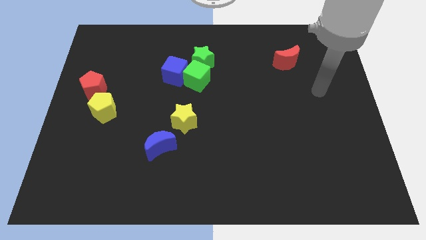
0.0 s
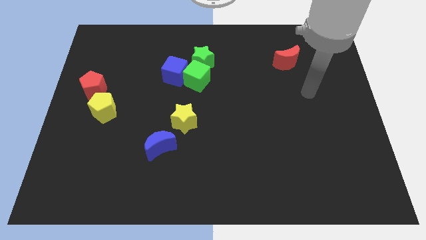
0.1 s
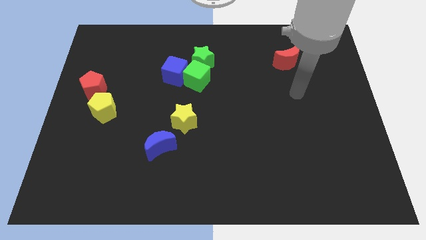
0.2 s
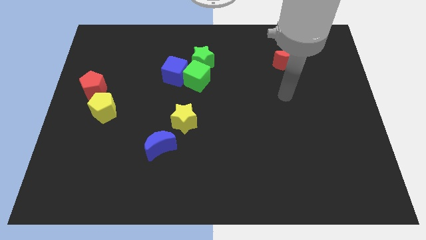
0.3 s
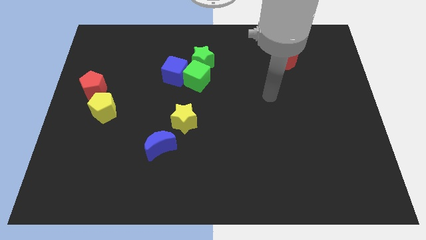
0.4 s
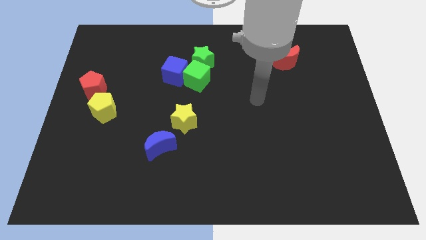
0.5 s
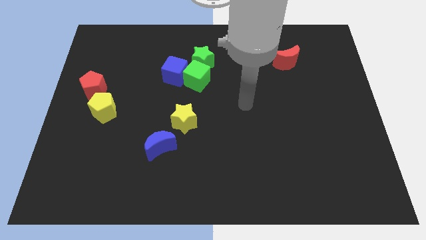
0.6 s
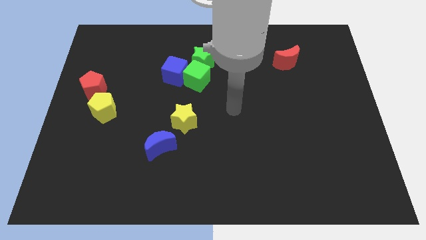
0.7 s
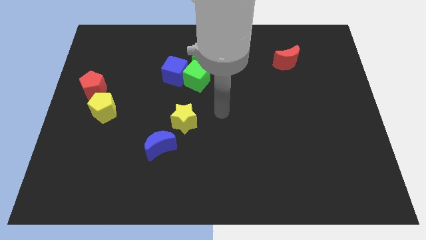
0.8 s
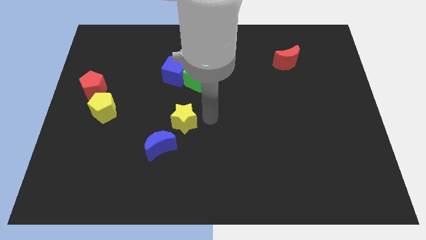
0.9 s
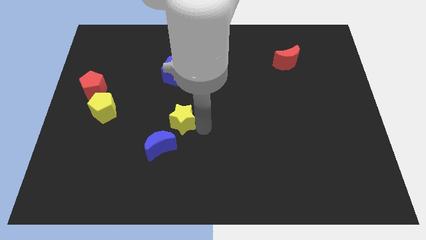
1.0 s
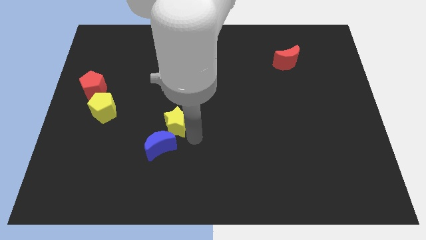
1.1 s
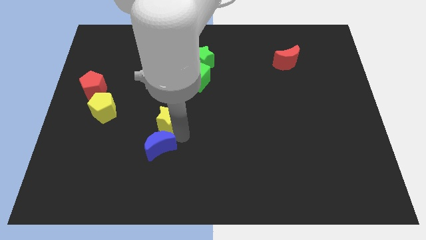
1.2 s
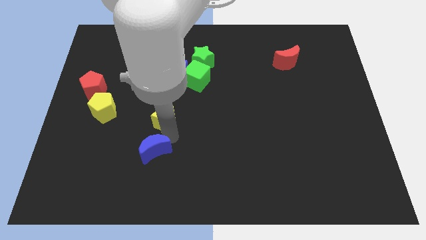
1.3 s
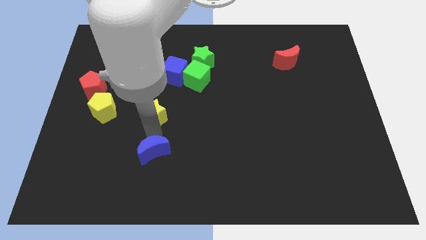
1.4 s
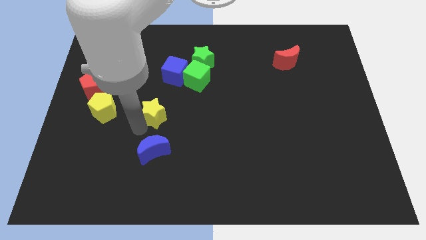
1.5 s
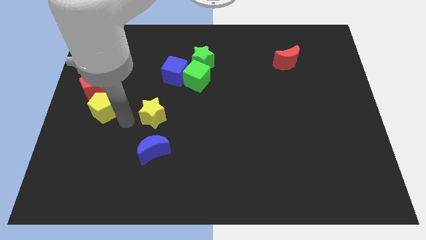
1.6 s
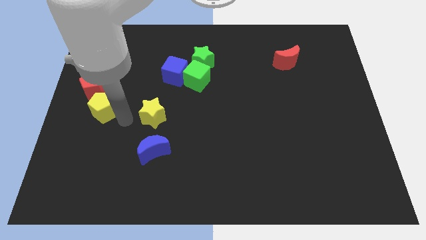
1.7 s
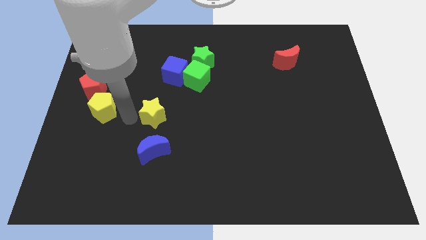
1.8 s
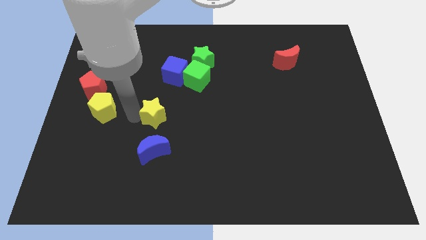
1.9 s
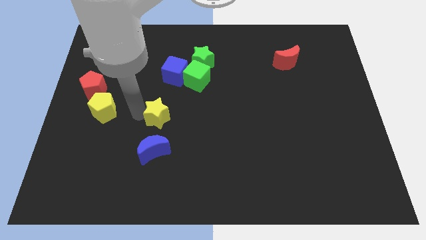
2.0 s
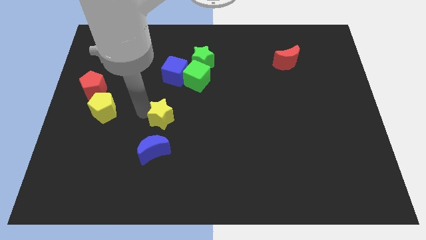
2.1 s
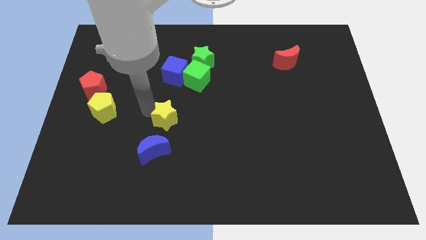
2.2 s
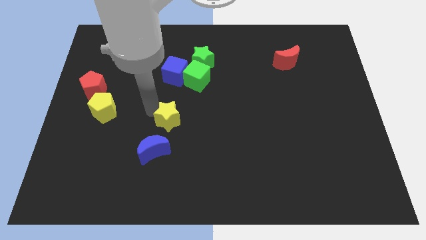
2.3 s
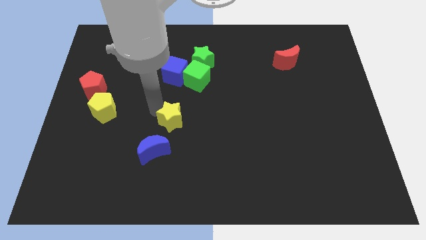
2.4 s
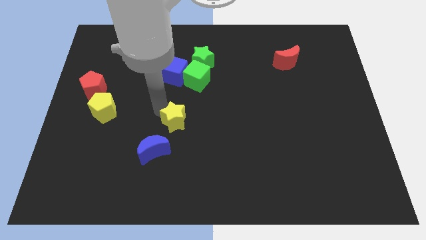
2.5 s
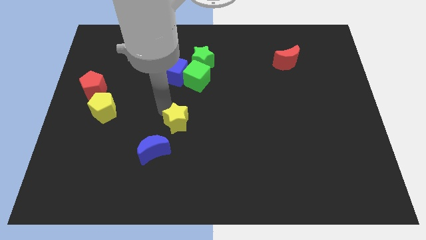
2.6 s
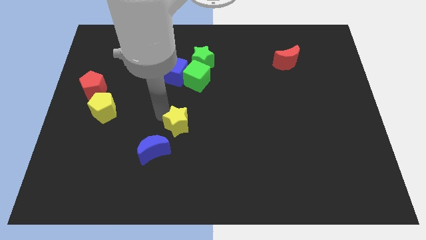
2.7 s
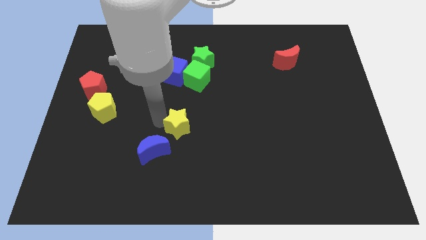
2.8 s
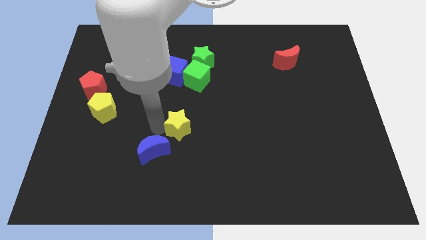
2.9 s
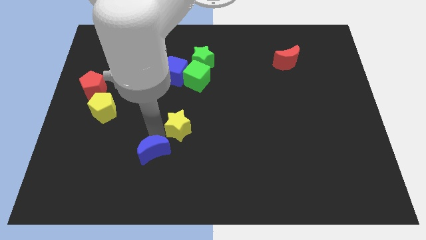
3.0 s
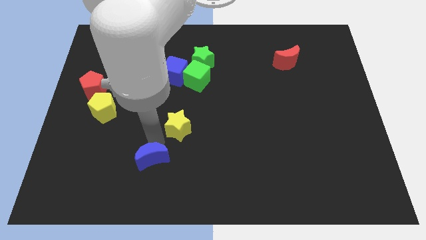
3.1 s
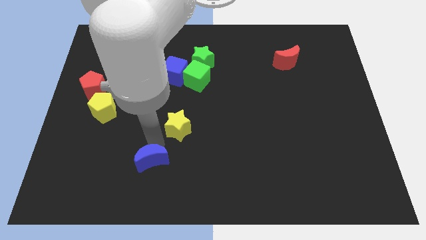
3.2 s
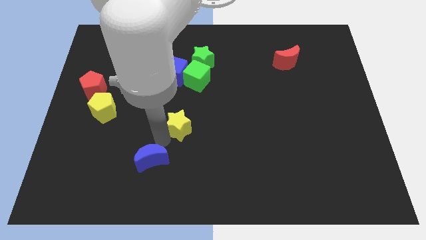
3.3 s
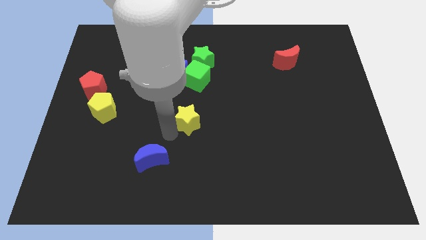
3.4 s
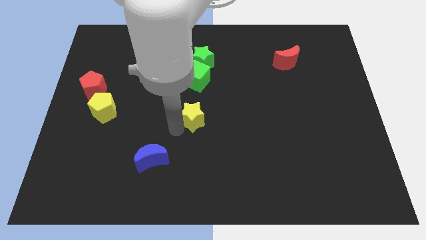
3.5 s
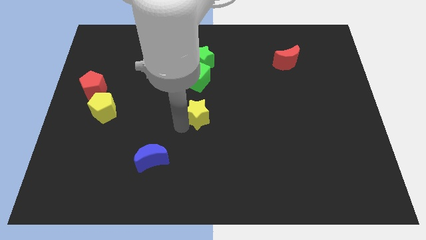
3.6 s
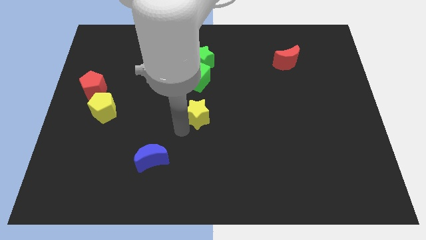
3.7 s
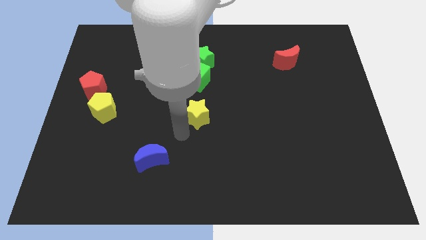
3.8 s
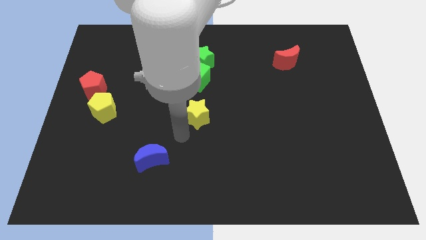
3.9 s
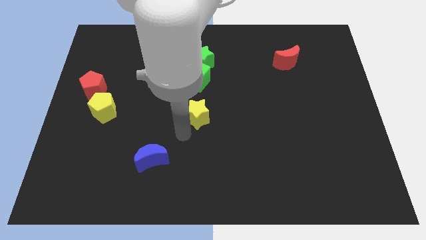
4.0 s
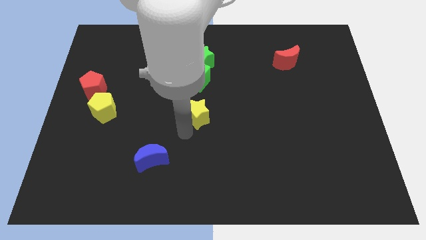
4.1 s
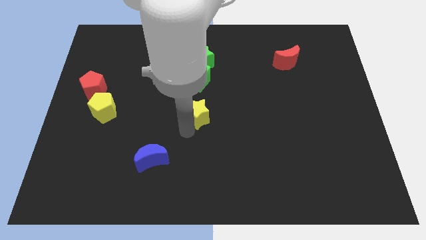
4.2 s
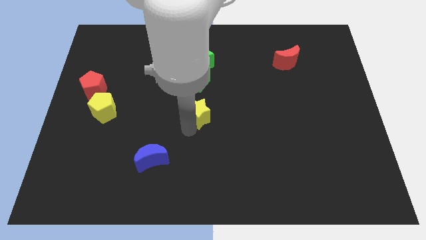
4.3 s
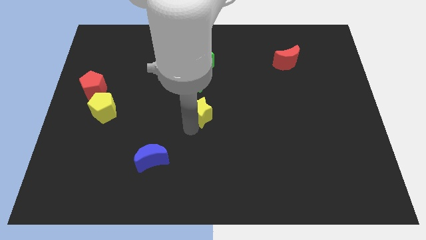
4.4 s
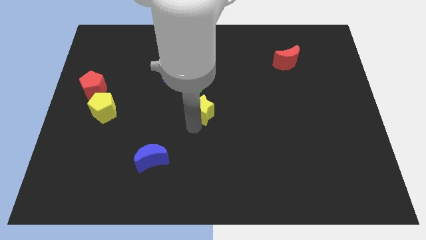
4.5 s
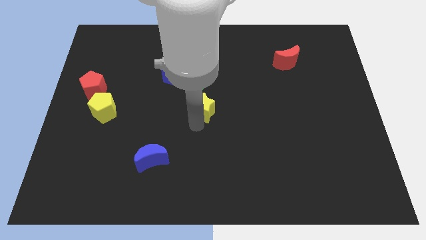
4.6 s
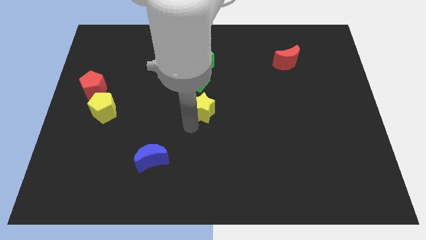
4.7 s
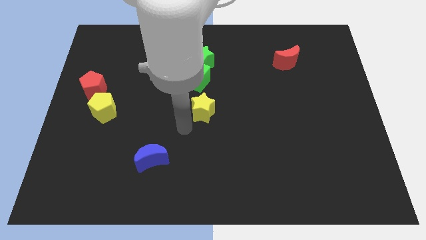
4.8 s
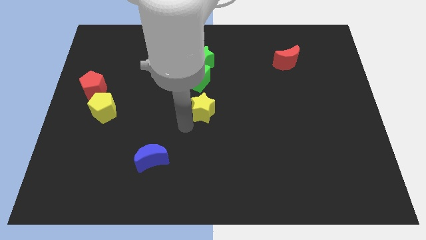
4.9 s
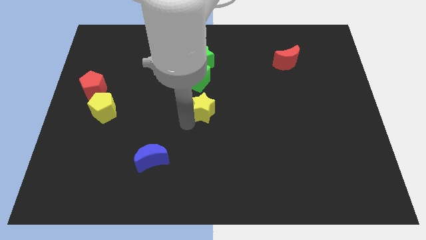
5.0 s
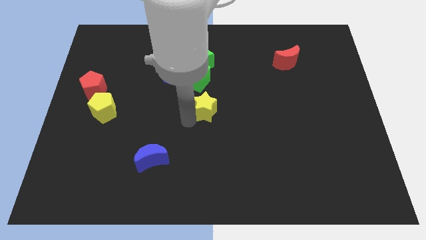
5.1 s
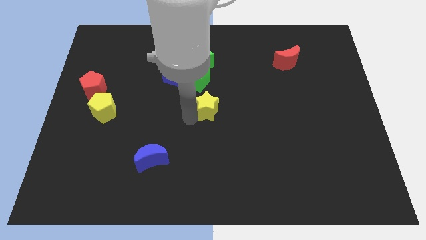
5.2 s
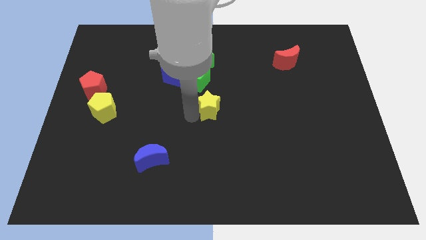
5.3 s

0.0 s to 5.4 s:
slide the yellow star to the bottom right of the green cube

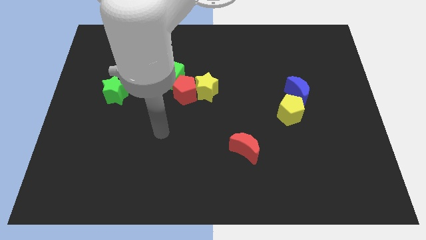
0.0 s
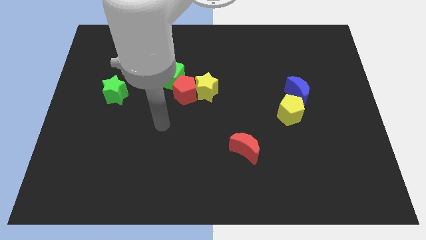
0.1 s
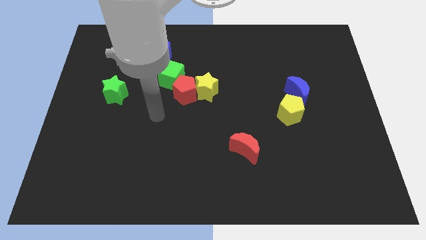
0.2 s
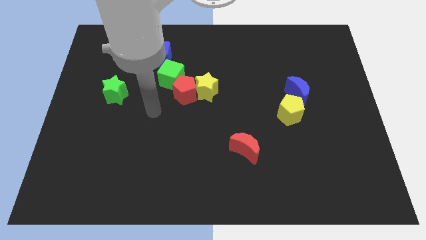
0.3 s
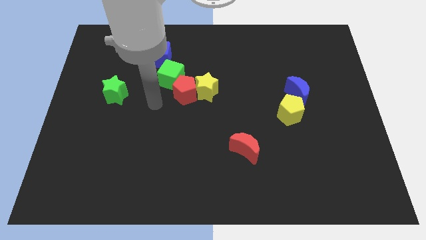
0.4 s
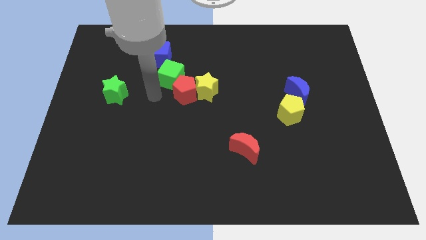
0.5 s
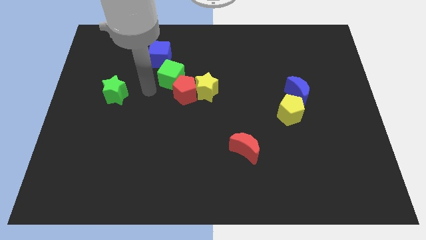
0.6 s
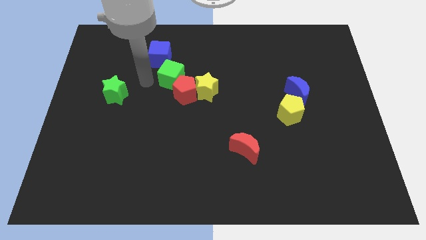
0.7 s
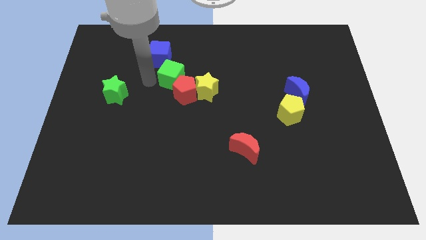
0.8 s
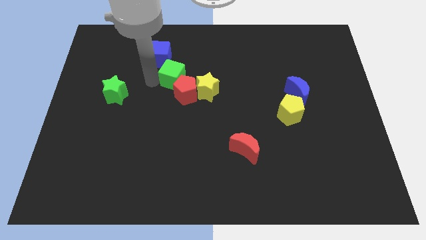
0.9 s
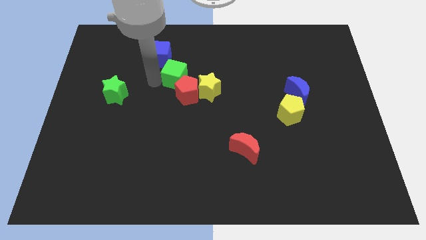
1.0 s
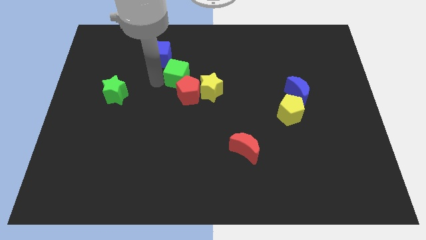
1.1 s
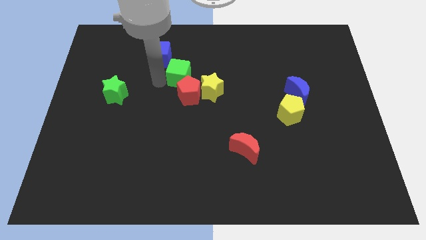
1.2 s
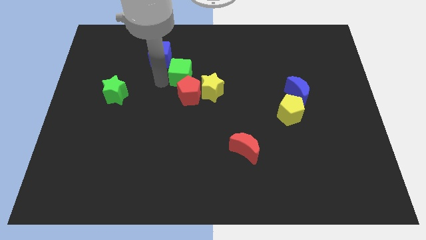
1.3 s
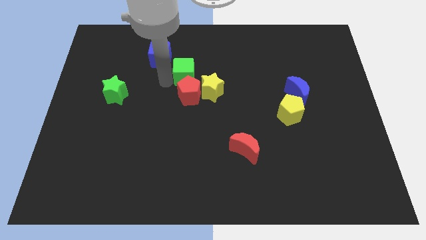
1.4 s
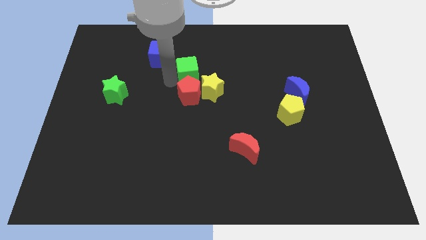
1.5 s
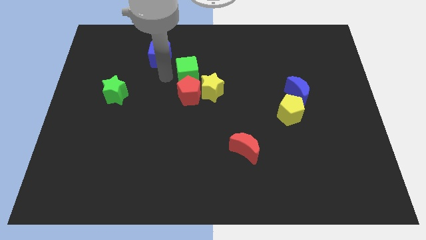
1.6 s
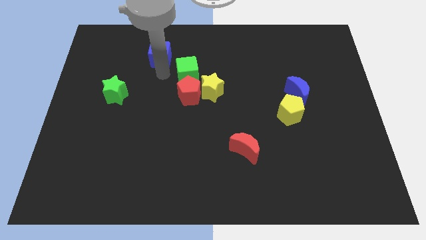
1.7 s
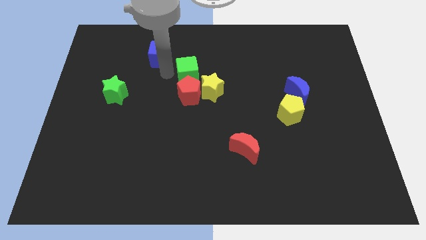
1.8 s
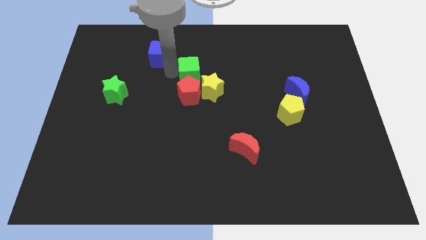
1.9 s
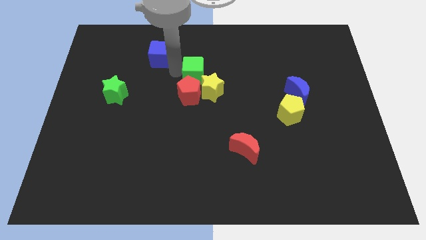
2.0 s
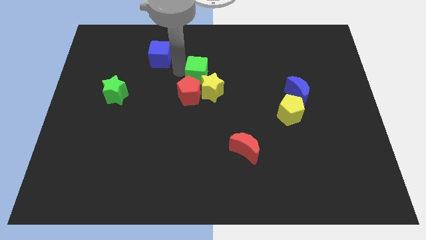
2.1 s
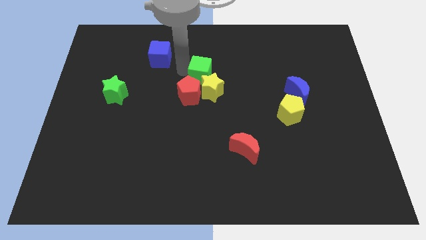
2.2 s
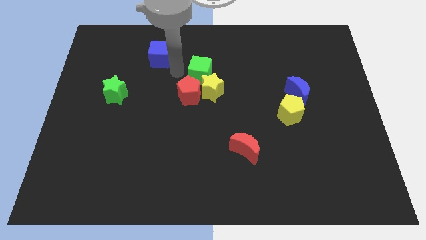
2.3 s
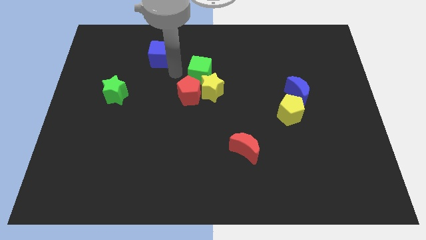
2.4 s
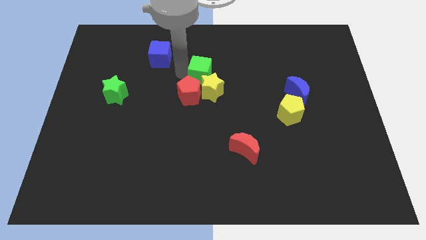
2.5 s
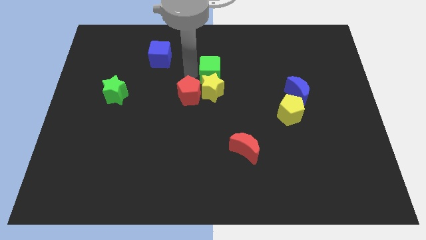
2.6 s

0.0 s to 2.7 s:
push the green cube diagonally up and to the right of the yellow star

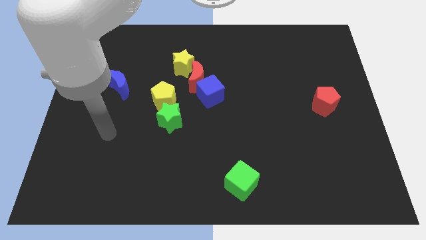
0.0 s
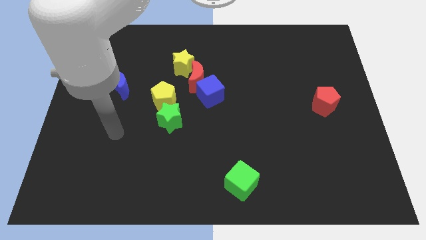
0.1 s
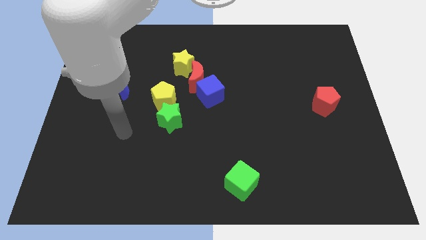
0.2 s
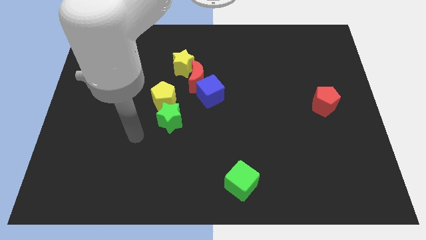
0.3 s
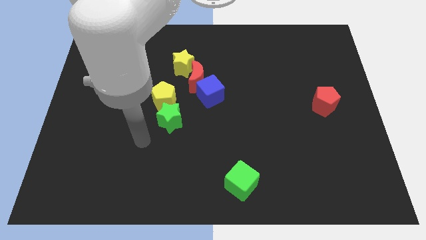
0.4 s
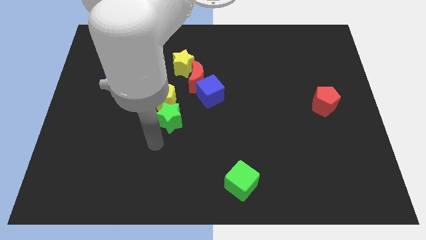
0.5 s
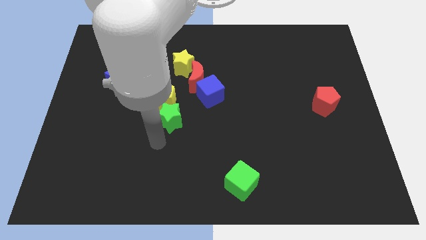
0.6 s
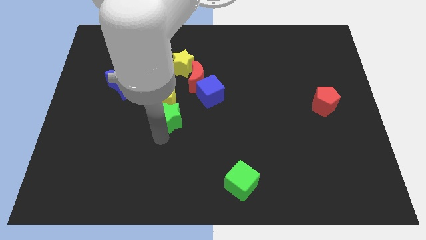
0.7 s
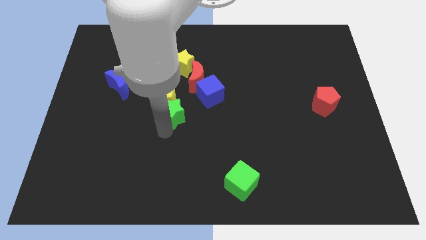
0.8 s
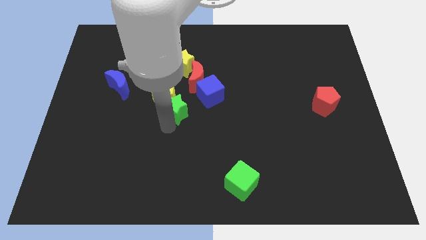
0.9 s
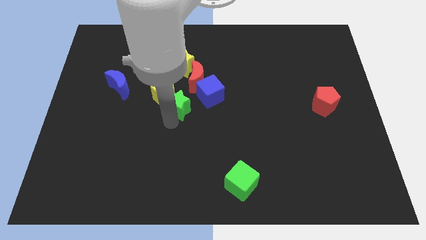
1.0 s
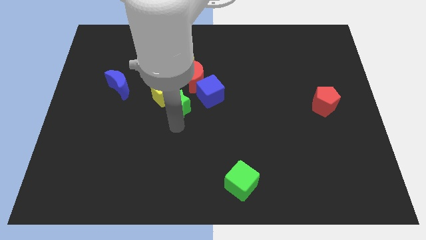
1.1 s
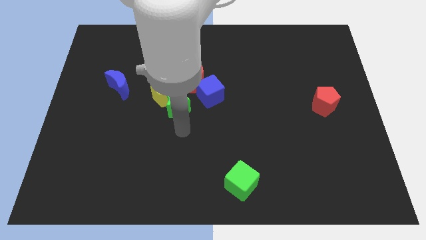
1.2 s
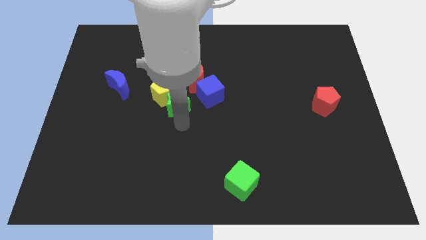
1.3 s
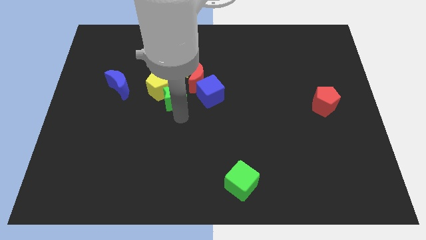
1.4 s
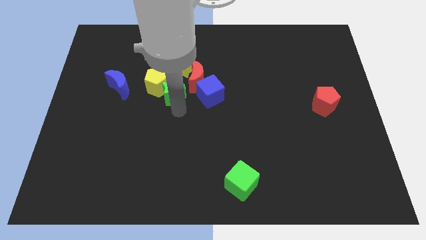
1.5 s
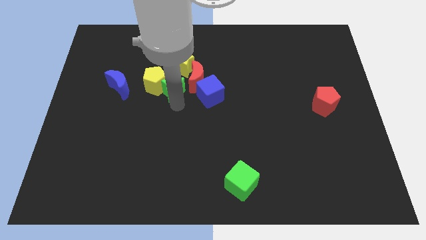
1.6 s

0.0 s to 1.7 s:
slide the green star diagonally down and to the left of the yellow star
